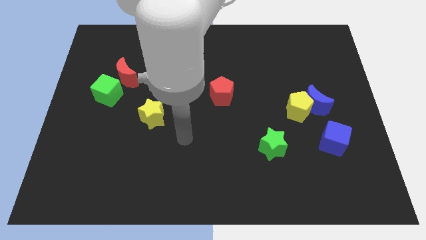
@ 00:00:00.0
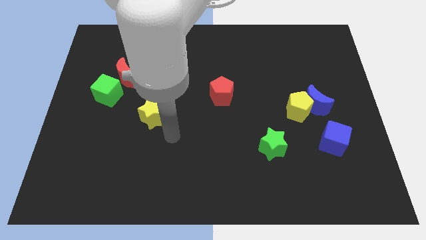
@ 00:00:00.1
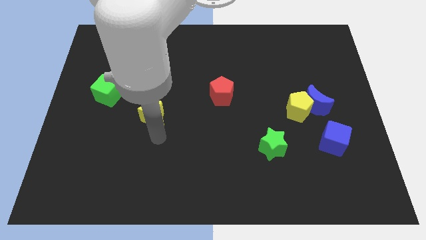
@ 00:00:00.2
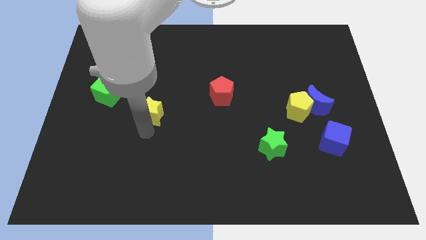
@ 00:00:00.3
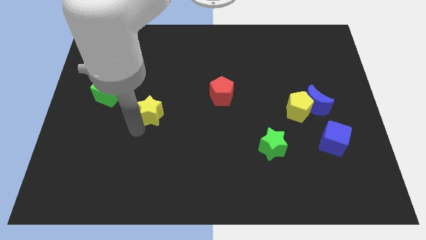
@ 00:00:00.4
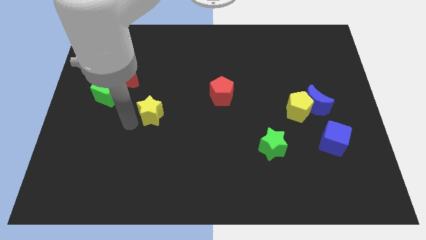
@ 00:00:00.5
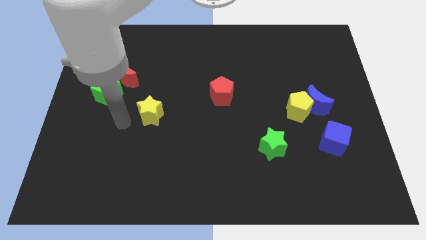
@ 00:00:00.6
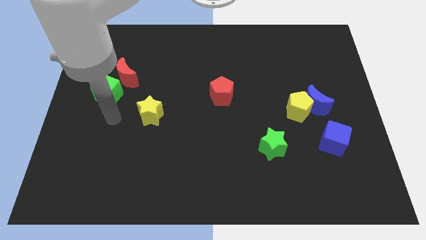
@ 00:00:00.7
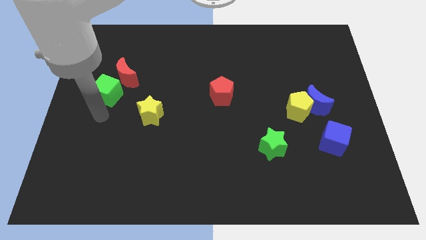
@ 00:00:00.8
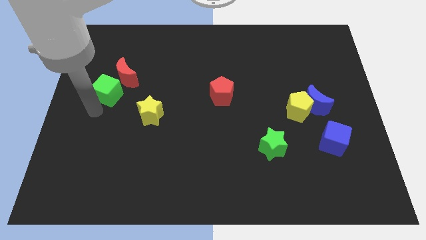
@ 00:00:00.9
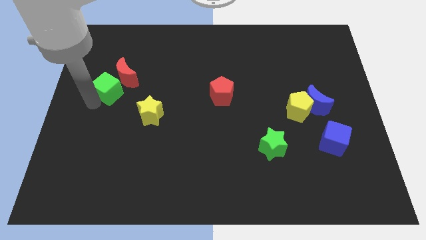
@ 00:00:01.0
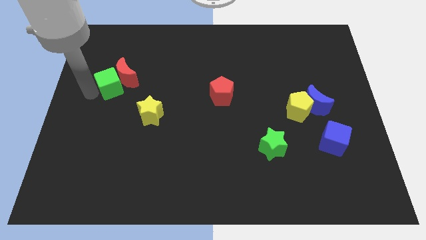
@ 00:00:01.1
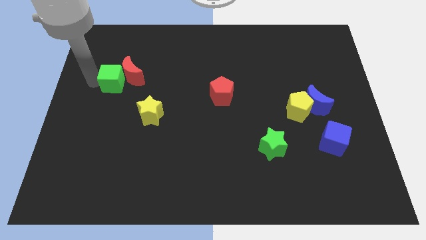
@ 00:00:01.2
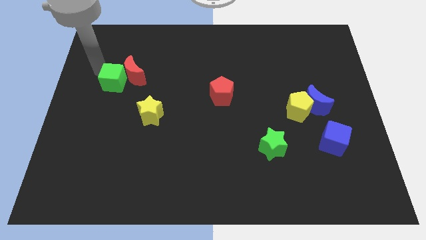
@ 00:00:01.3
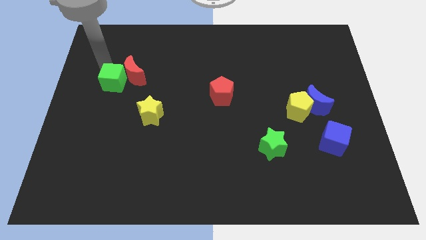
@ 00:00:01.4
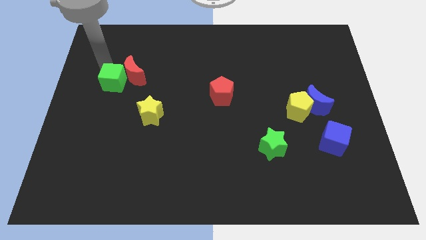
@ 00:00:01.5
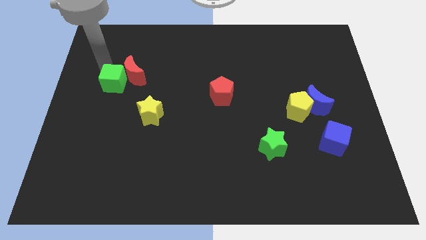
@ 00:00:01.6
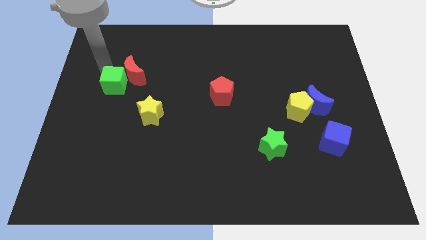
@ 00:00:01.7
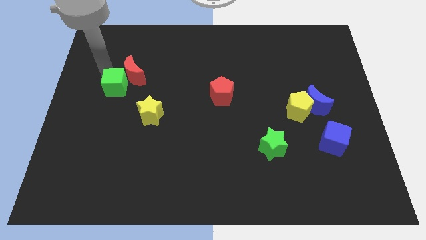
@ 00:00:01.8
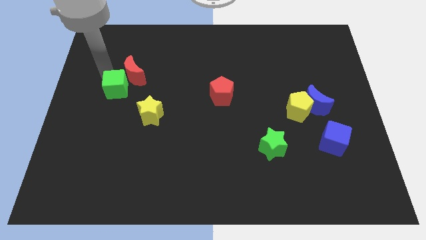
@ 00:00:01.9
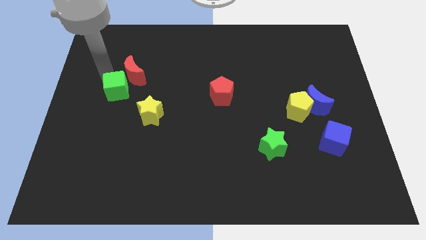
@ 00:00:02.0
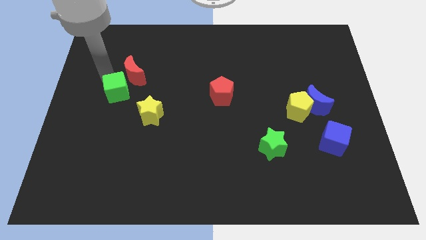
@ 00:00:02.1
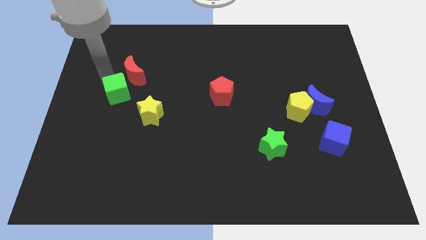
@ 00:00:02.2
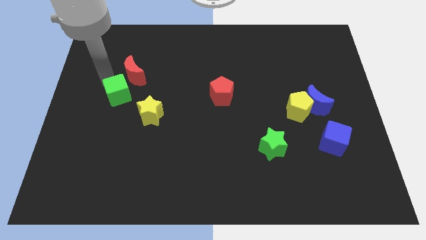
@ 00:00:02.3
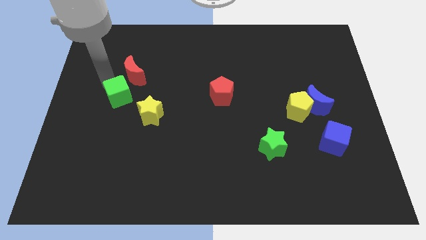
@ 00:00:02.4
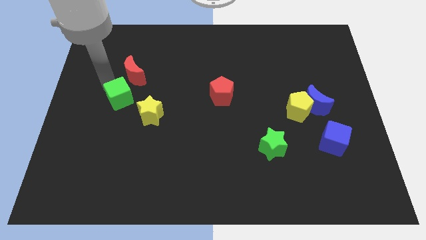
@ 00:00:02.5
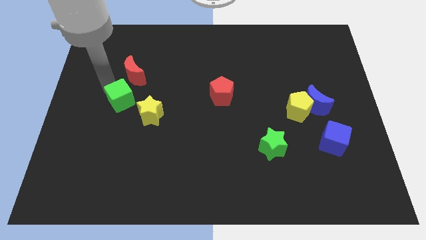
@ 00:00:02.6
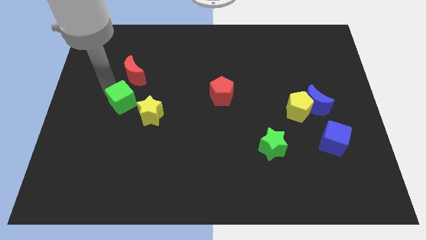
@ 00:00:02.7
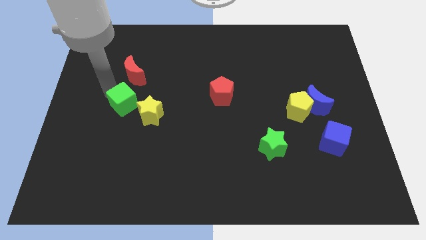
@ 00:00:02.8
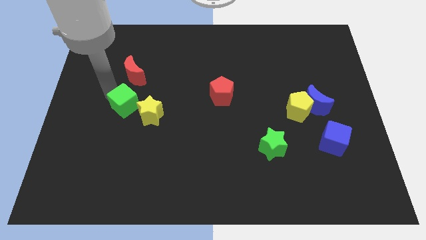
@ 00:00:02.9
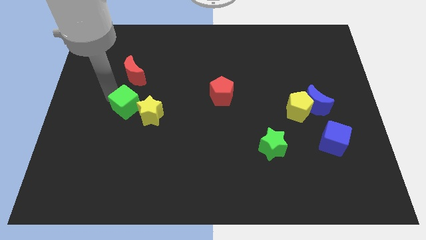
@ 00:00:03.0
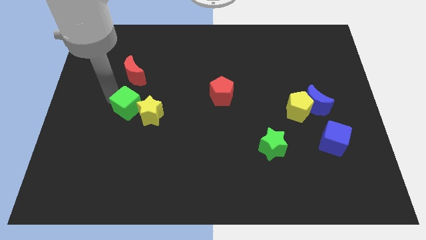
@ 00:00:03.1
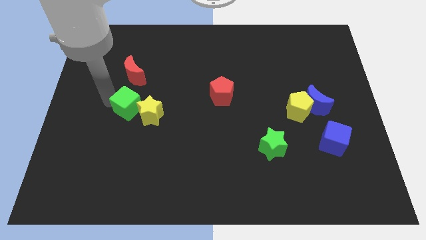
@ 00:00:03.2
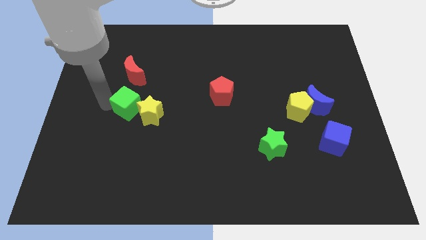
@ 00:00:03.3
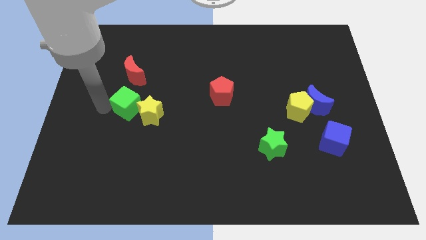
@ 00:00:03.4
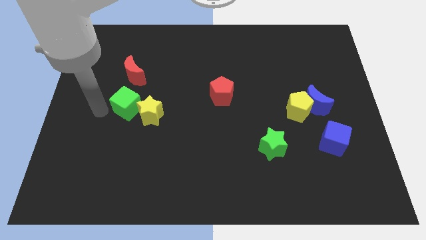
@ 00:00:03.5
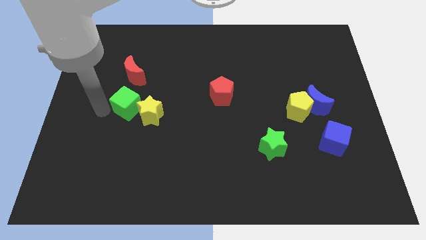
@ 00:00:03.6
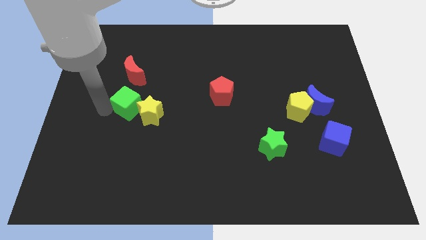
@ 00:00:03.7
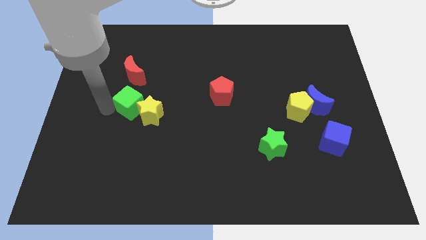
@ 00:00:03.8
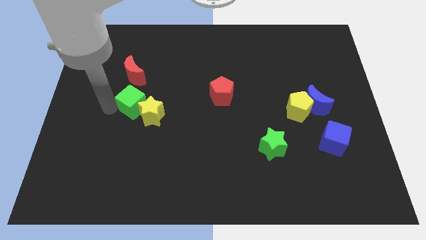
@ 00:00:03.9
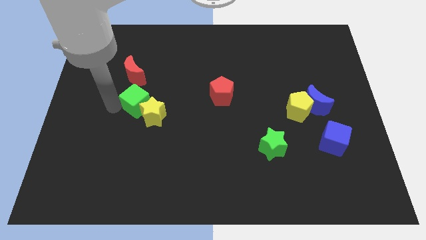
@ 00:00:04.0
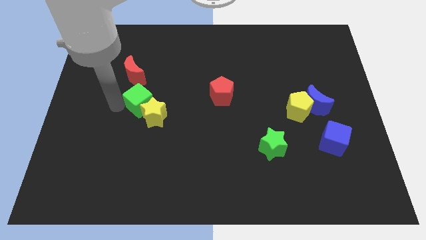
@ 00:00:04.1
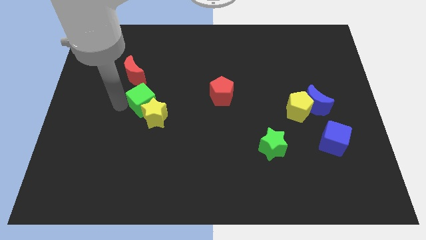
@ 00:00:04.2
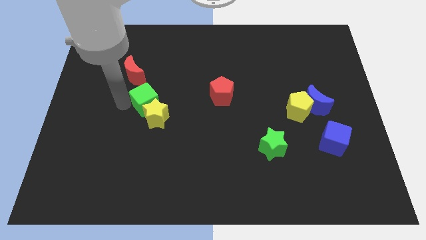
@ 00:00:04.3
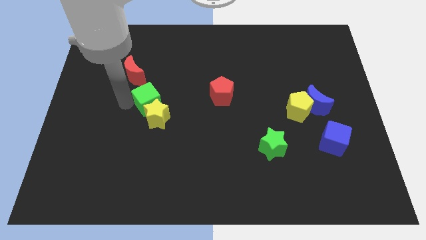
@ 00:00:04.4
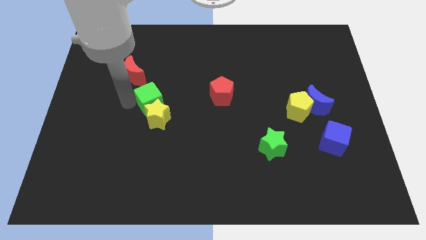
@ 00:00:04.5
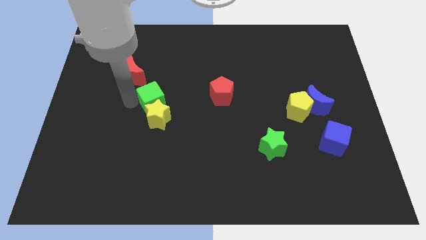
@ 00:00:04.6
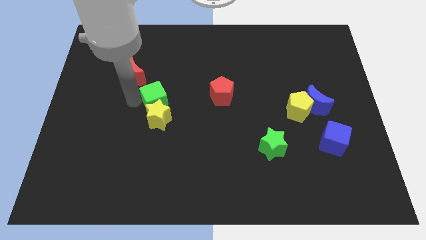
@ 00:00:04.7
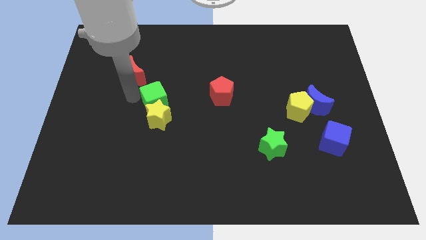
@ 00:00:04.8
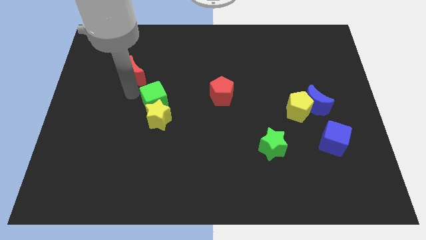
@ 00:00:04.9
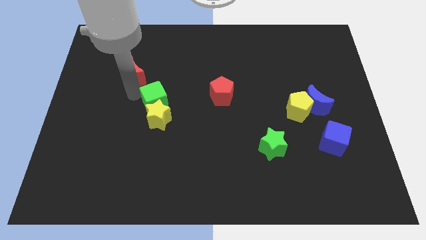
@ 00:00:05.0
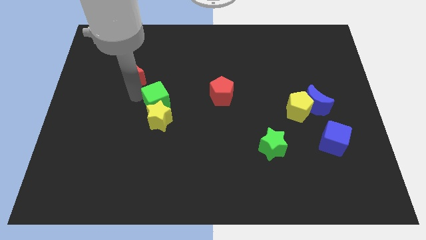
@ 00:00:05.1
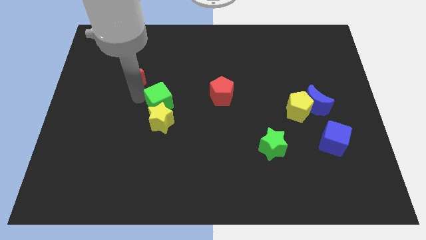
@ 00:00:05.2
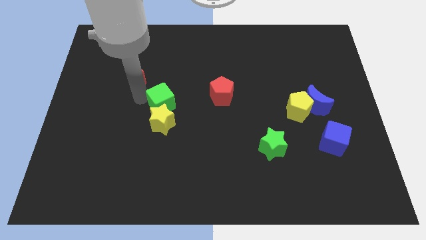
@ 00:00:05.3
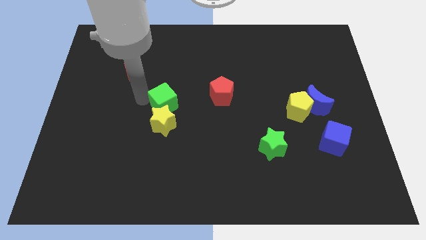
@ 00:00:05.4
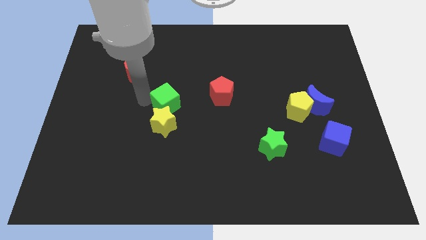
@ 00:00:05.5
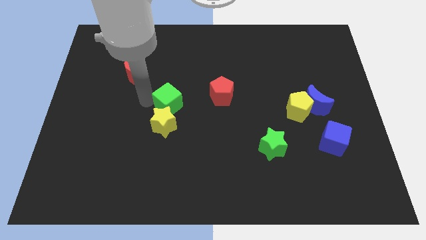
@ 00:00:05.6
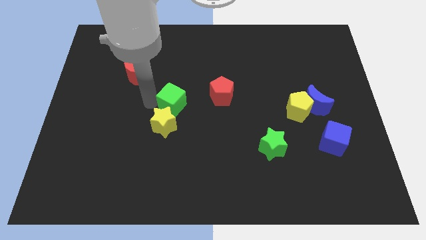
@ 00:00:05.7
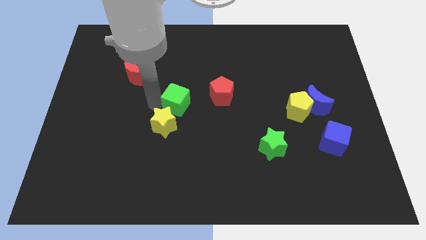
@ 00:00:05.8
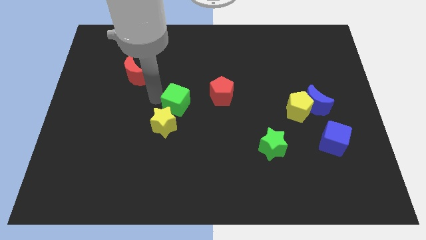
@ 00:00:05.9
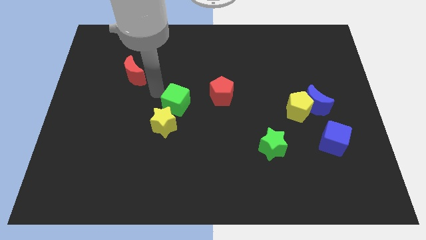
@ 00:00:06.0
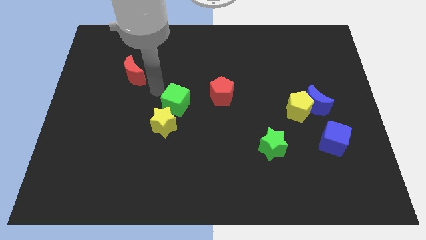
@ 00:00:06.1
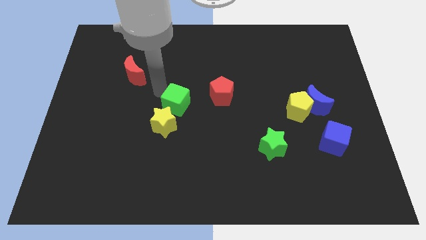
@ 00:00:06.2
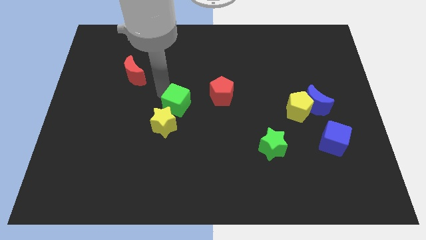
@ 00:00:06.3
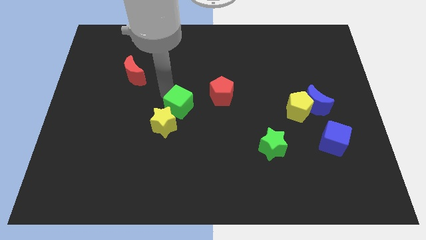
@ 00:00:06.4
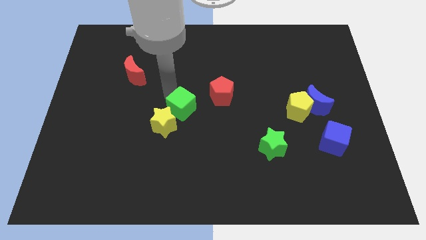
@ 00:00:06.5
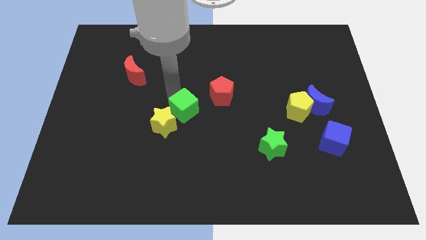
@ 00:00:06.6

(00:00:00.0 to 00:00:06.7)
move the green cube to the right side of the yellow star

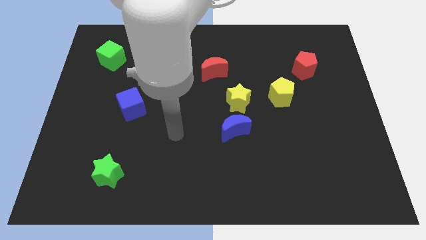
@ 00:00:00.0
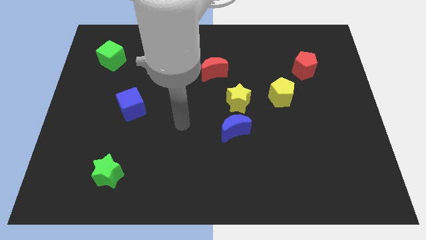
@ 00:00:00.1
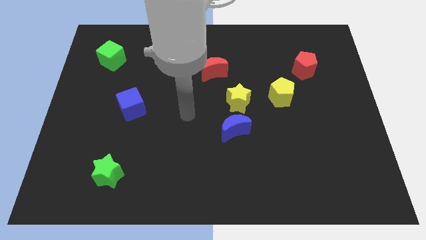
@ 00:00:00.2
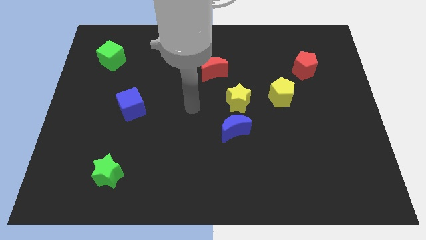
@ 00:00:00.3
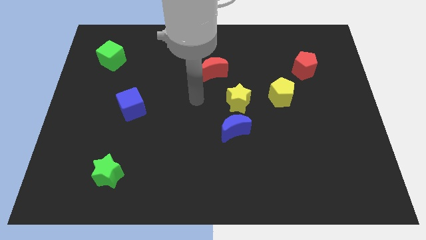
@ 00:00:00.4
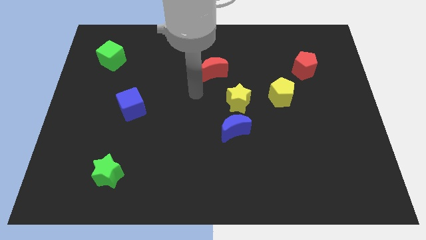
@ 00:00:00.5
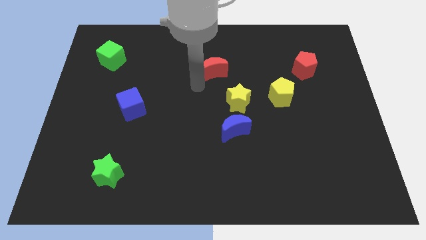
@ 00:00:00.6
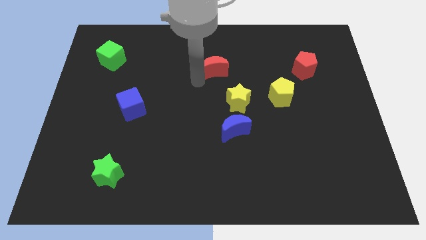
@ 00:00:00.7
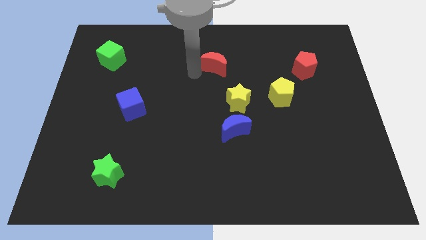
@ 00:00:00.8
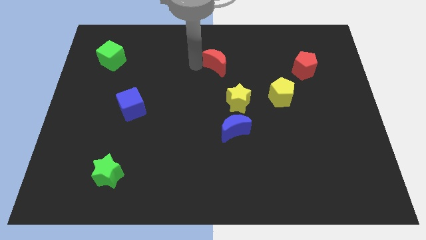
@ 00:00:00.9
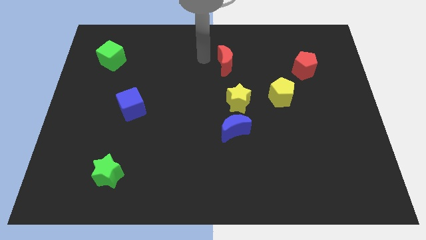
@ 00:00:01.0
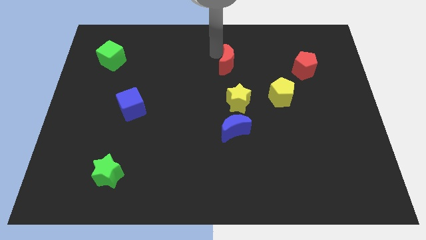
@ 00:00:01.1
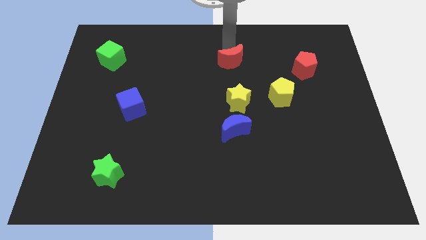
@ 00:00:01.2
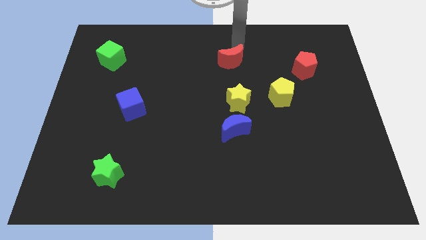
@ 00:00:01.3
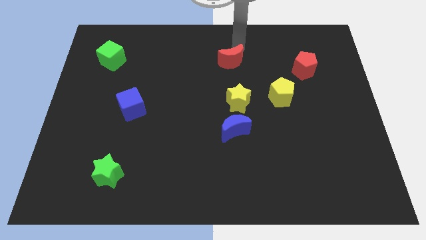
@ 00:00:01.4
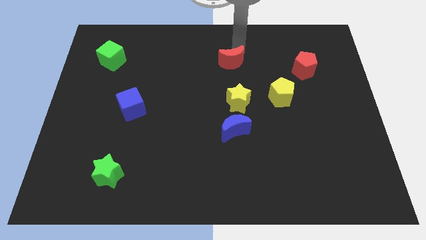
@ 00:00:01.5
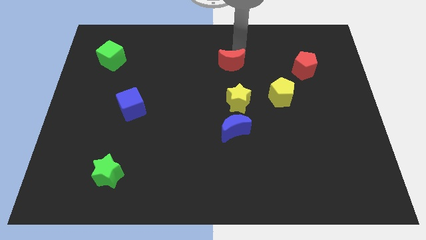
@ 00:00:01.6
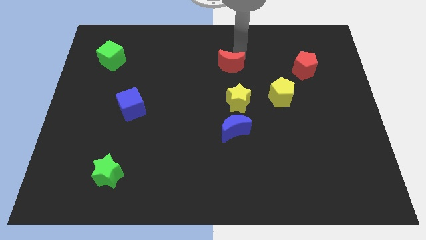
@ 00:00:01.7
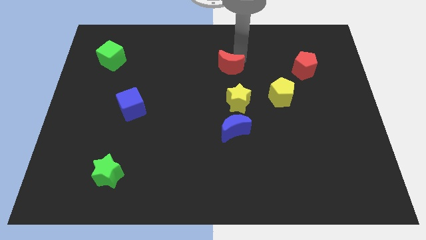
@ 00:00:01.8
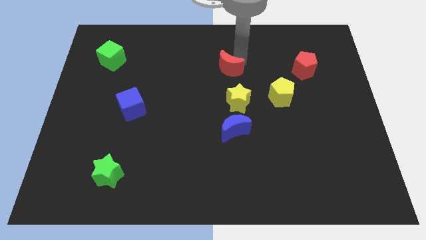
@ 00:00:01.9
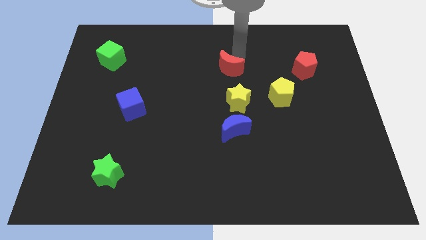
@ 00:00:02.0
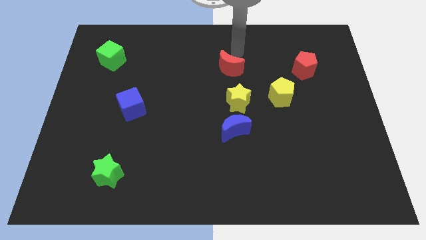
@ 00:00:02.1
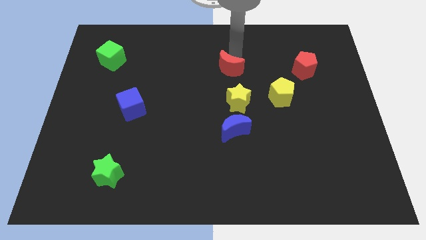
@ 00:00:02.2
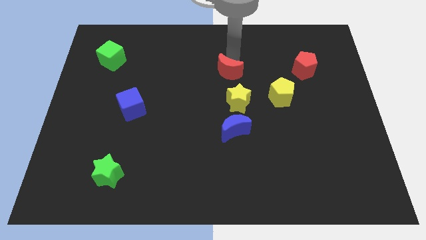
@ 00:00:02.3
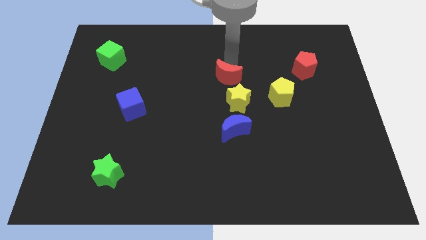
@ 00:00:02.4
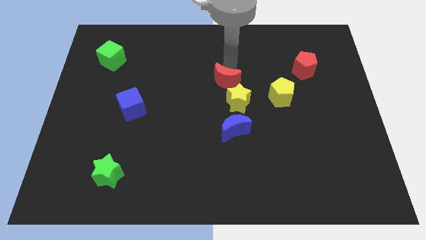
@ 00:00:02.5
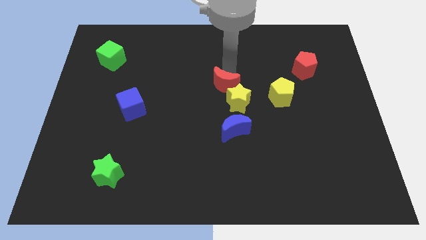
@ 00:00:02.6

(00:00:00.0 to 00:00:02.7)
put the red moon to the left side of the yellow pentagon
